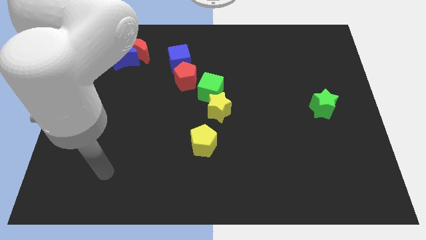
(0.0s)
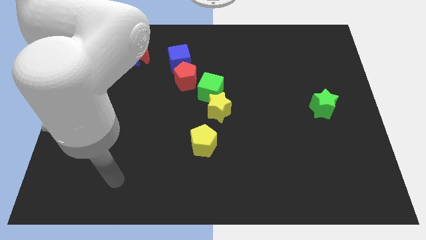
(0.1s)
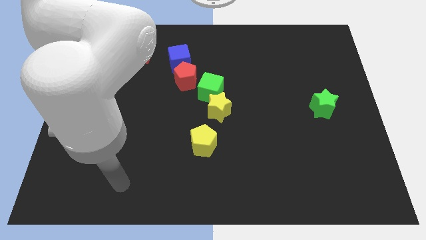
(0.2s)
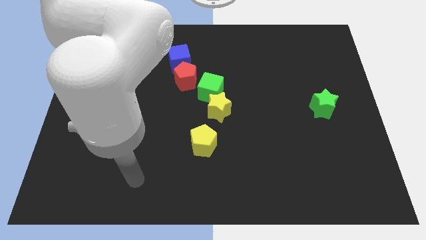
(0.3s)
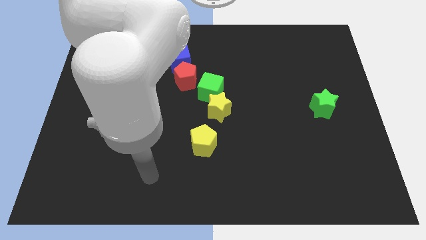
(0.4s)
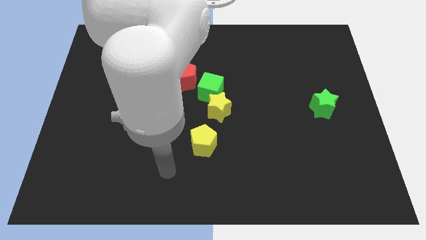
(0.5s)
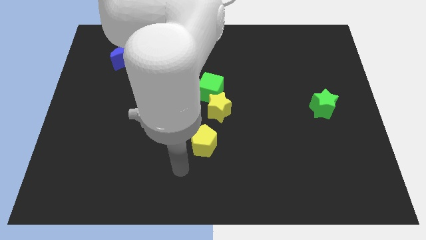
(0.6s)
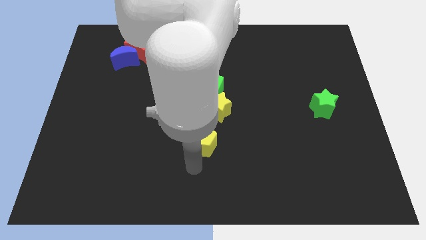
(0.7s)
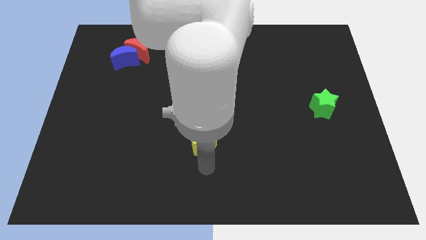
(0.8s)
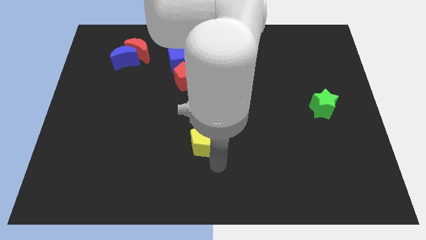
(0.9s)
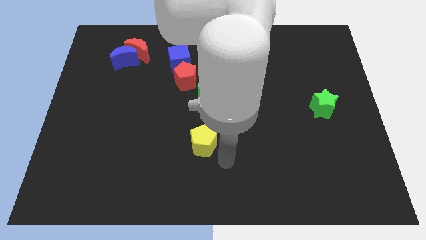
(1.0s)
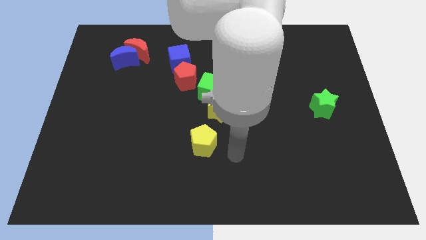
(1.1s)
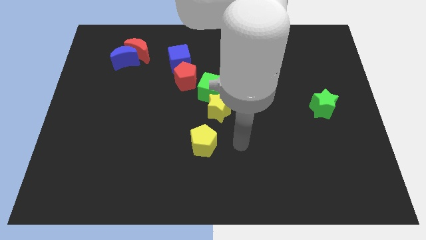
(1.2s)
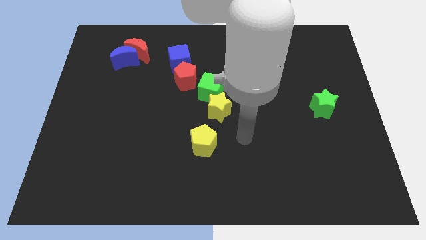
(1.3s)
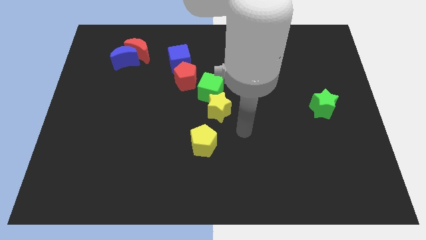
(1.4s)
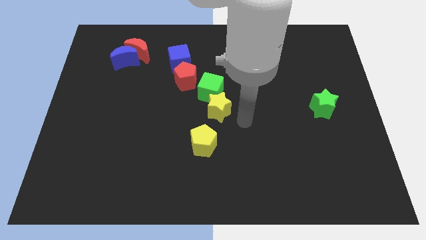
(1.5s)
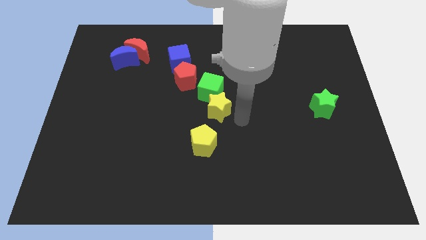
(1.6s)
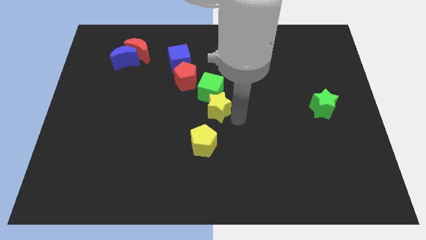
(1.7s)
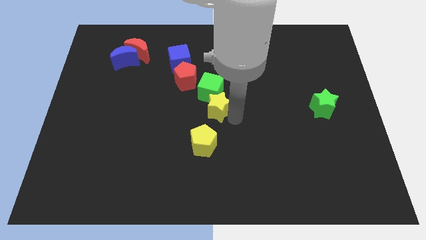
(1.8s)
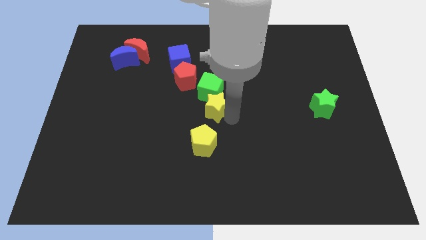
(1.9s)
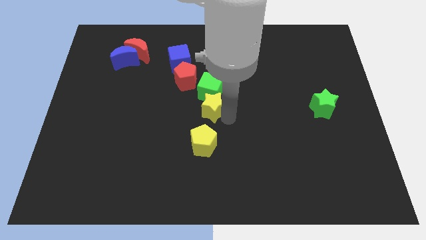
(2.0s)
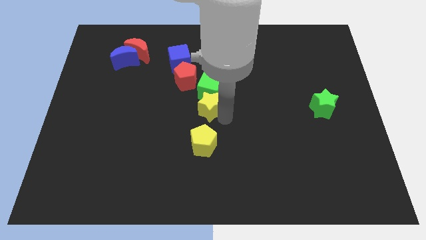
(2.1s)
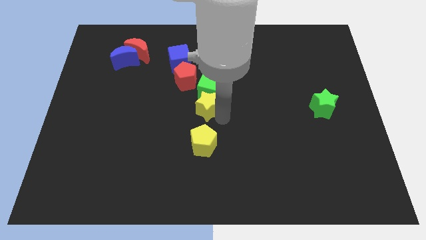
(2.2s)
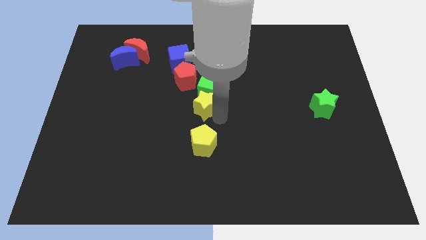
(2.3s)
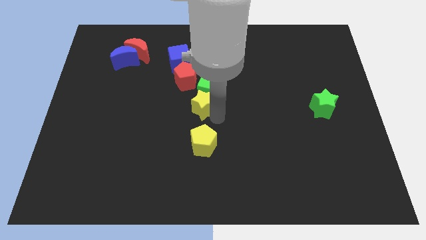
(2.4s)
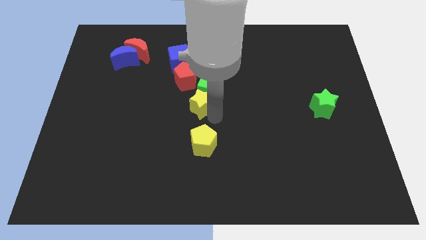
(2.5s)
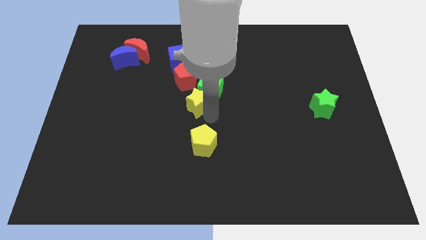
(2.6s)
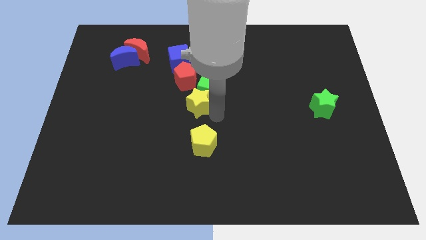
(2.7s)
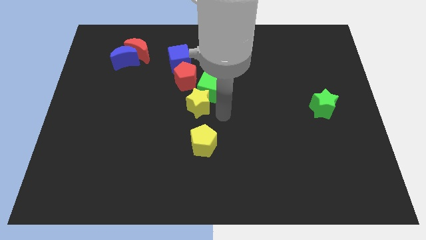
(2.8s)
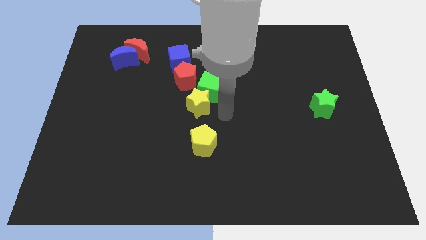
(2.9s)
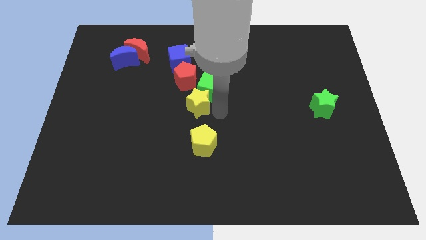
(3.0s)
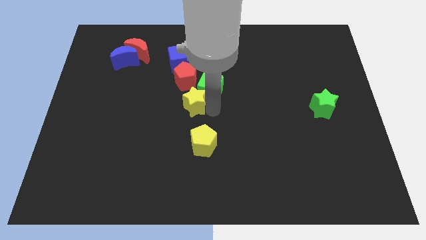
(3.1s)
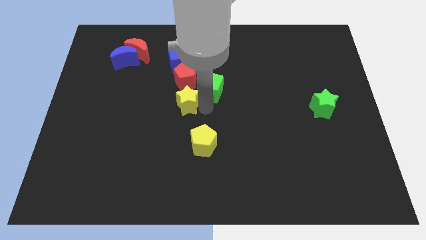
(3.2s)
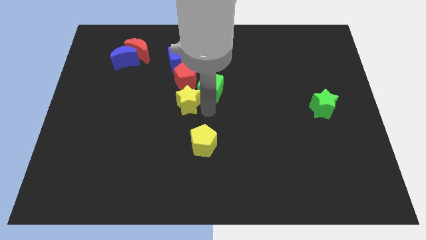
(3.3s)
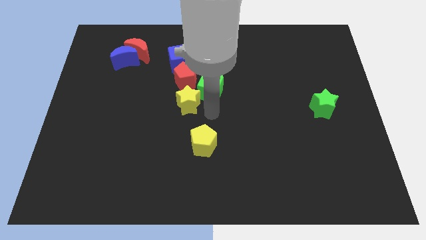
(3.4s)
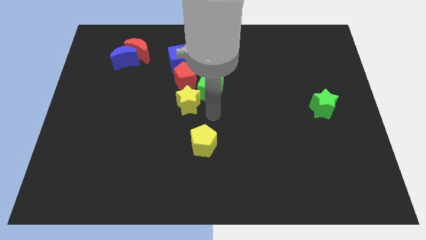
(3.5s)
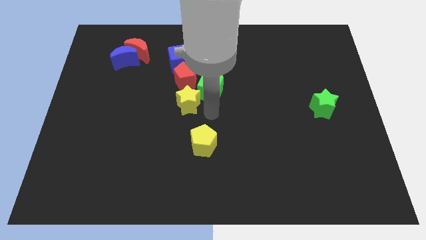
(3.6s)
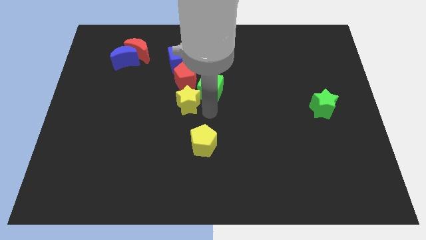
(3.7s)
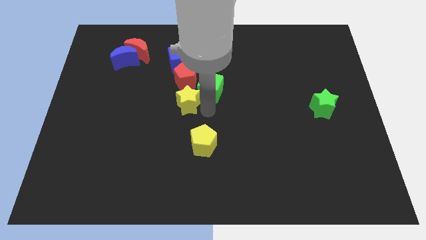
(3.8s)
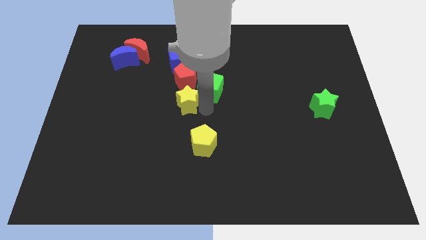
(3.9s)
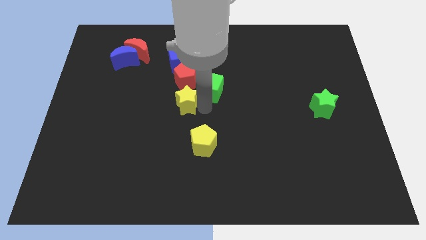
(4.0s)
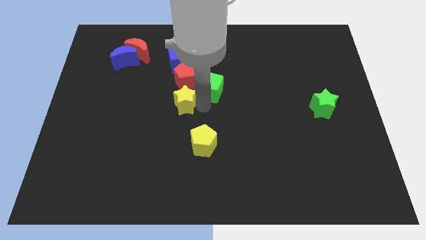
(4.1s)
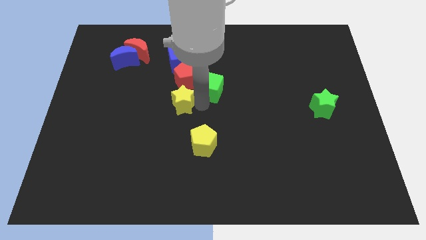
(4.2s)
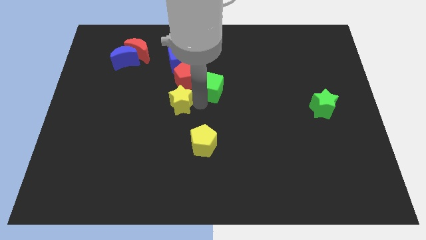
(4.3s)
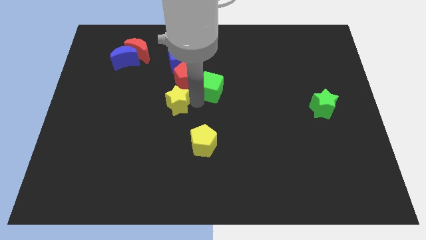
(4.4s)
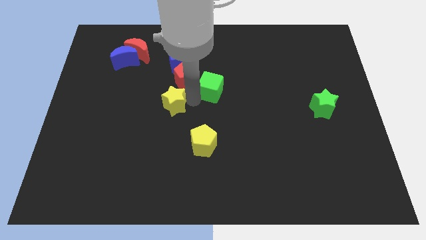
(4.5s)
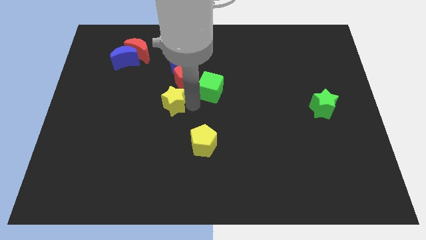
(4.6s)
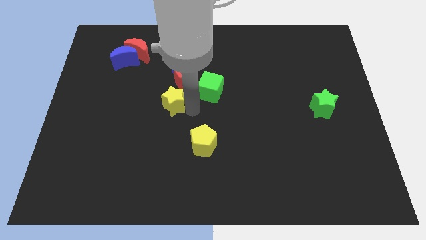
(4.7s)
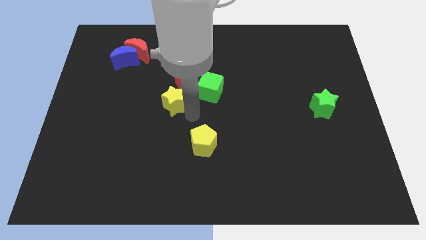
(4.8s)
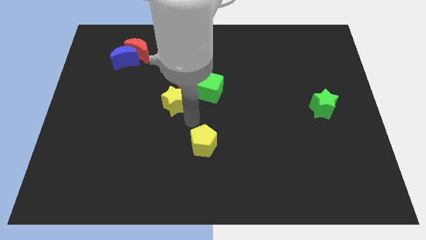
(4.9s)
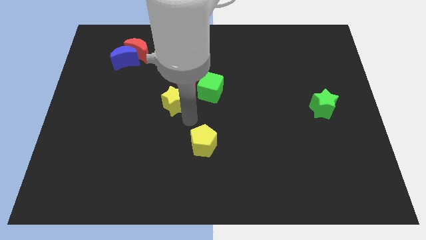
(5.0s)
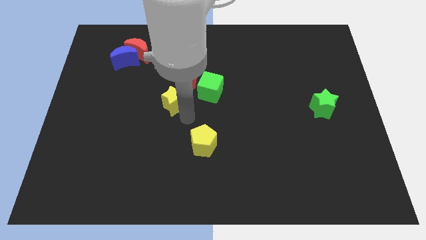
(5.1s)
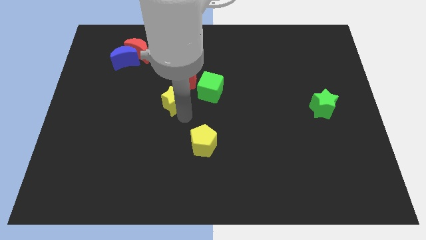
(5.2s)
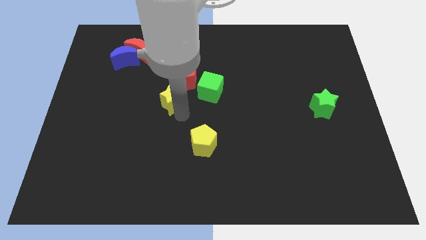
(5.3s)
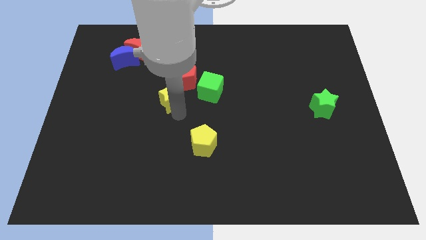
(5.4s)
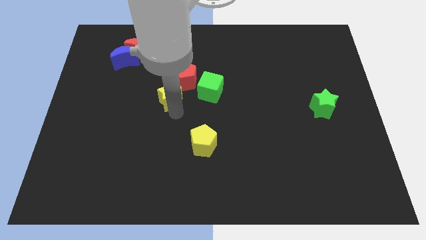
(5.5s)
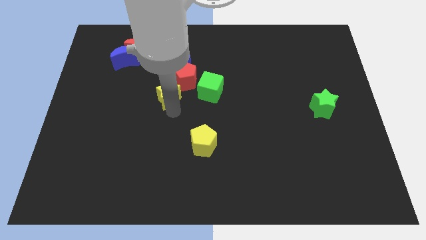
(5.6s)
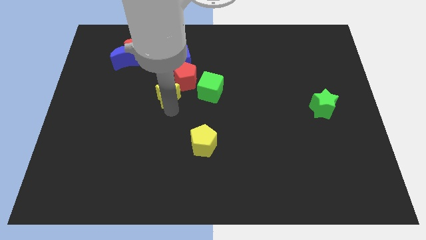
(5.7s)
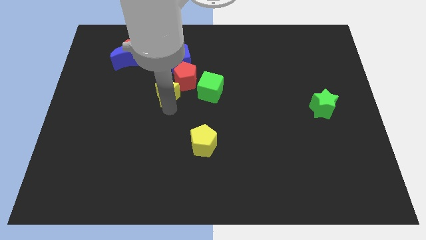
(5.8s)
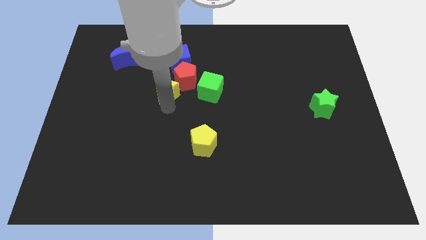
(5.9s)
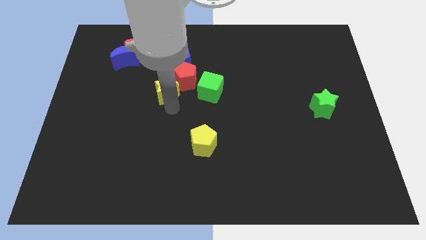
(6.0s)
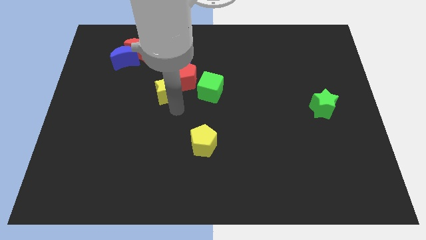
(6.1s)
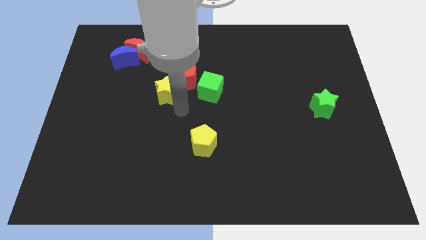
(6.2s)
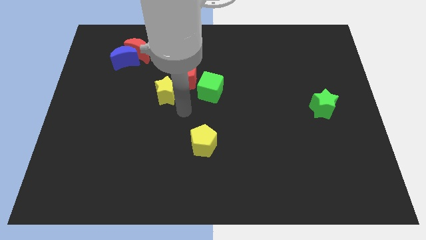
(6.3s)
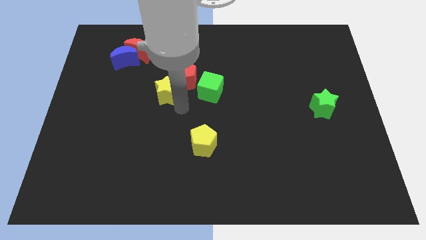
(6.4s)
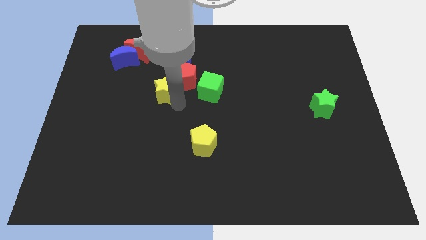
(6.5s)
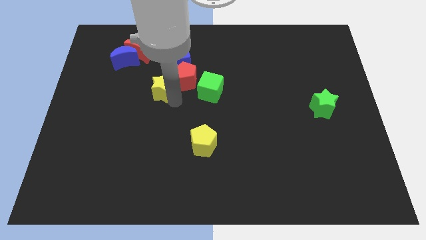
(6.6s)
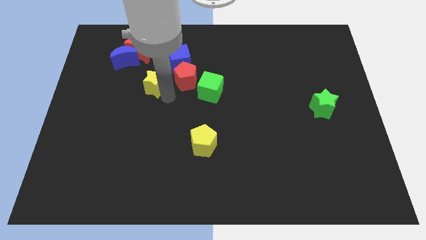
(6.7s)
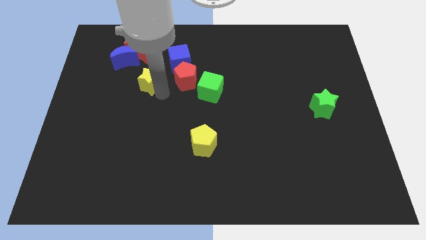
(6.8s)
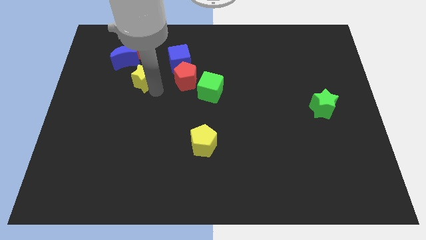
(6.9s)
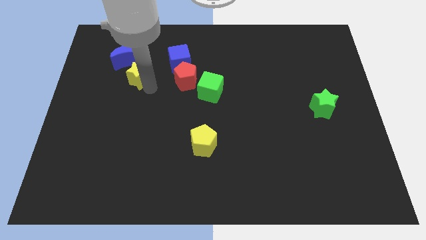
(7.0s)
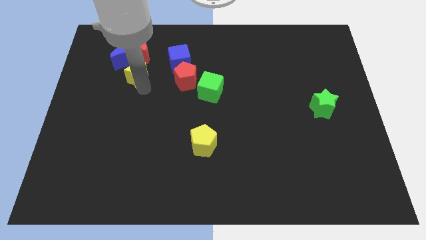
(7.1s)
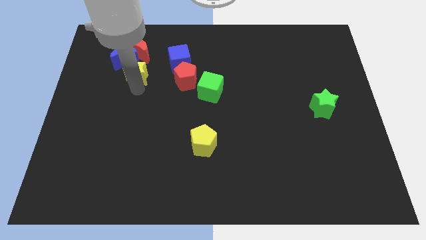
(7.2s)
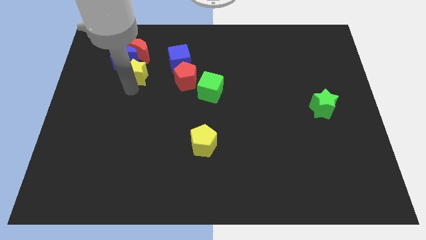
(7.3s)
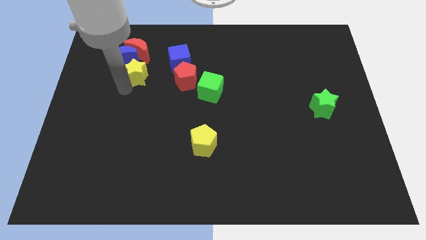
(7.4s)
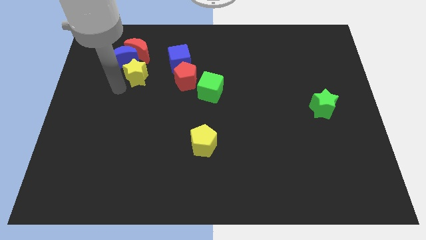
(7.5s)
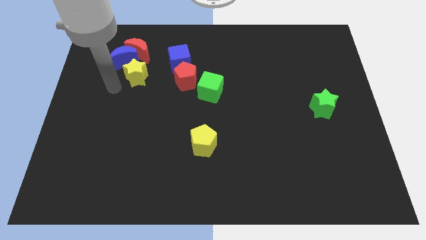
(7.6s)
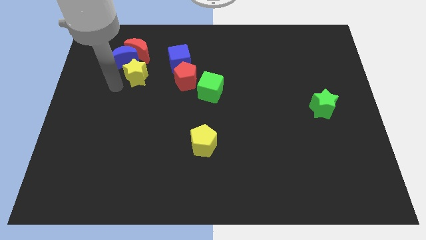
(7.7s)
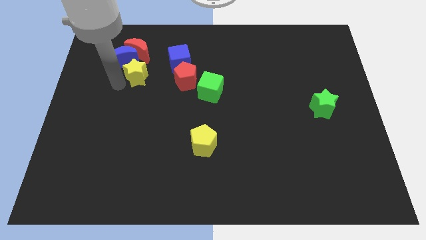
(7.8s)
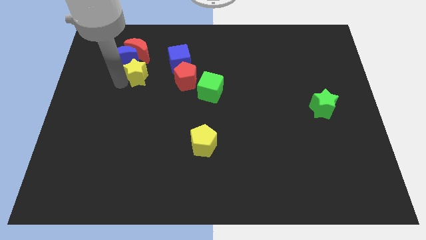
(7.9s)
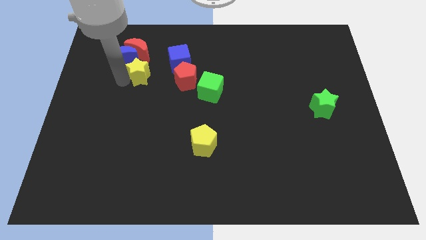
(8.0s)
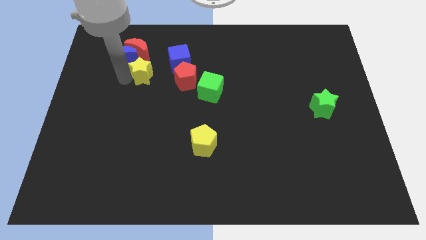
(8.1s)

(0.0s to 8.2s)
push the yellow star to the bottom right side of the red moon
